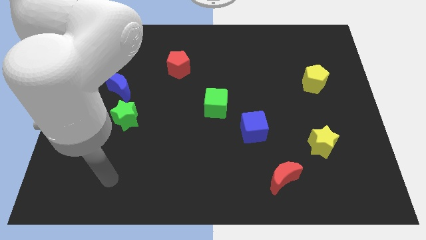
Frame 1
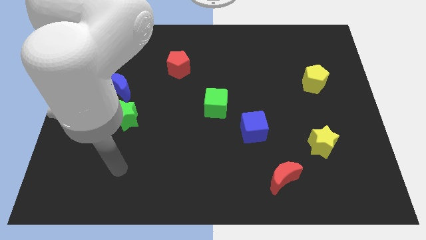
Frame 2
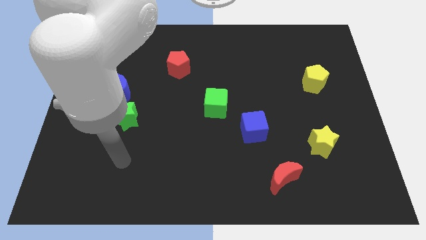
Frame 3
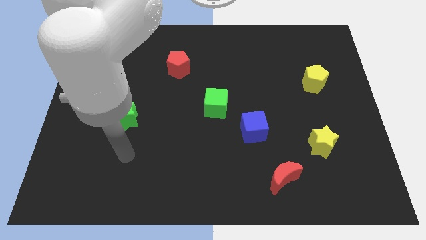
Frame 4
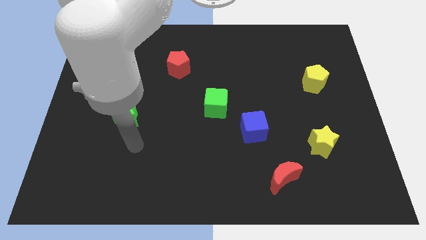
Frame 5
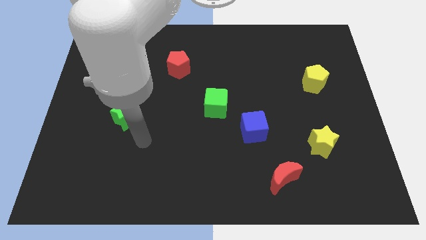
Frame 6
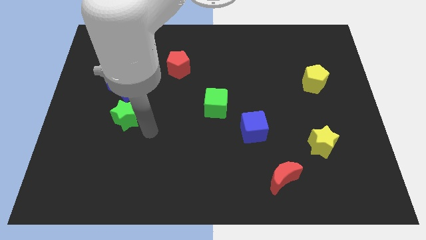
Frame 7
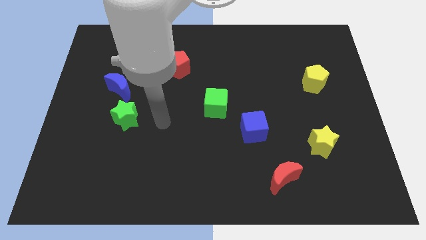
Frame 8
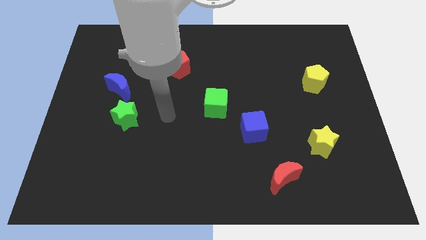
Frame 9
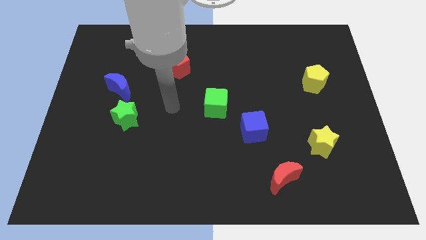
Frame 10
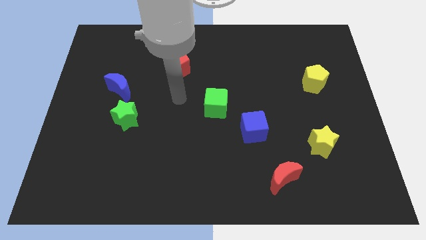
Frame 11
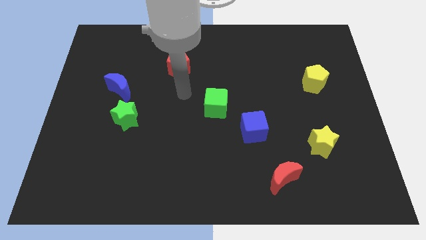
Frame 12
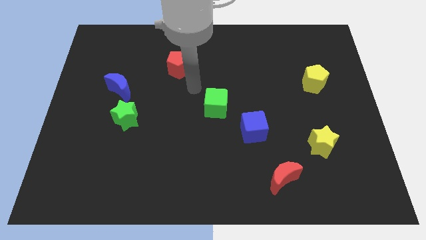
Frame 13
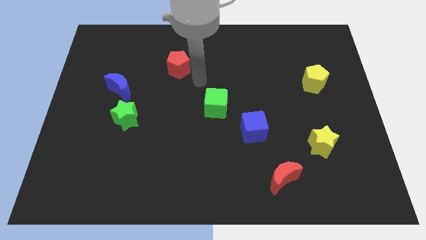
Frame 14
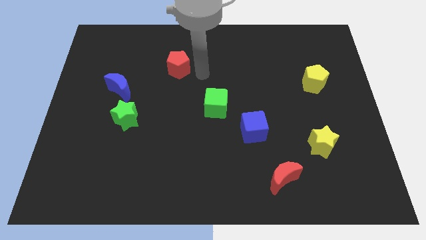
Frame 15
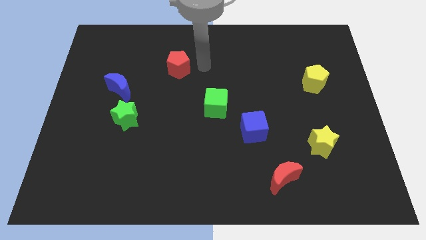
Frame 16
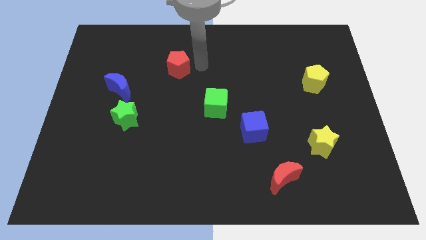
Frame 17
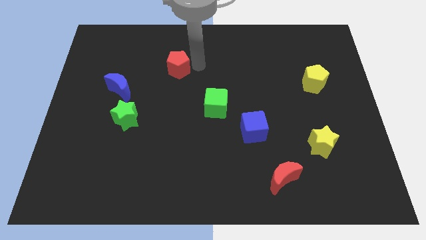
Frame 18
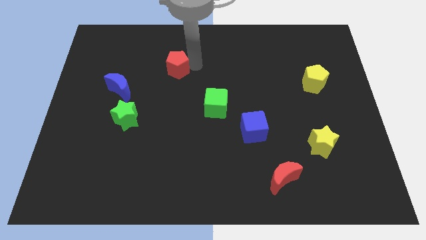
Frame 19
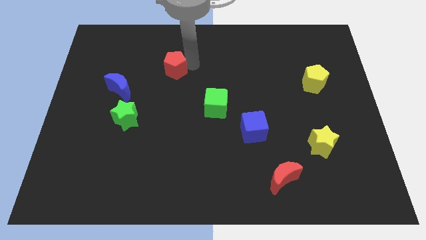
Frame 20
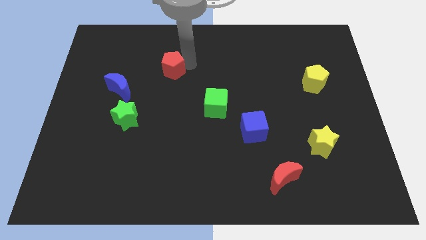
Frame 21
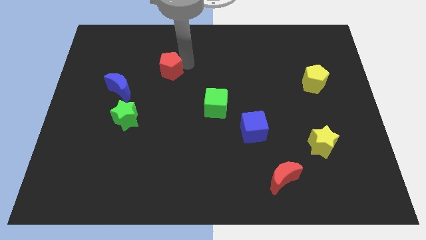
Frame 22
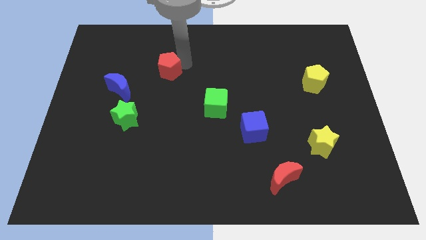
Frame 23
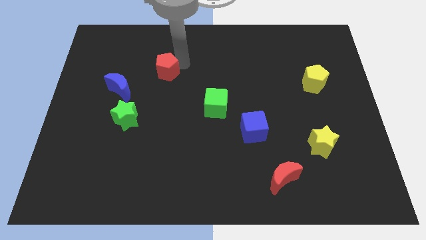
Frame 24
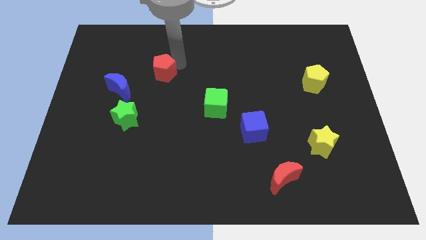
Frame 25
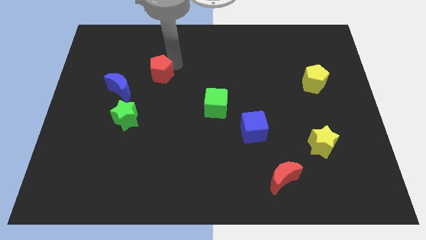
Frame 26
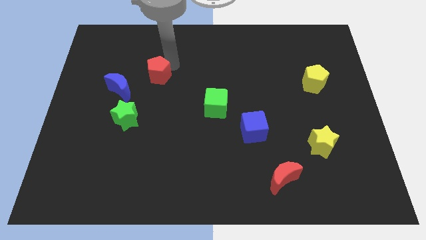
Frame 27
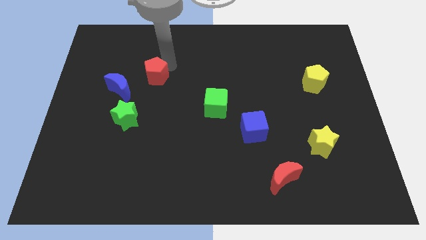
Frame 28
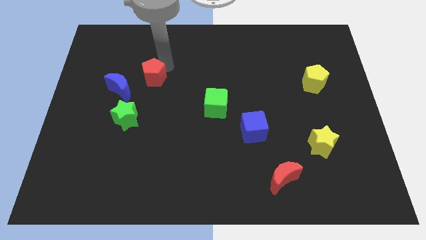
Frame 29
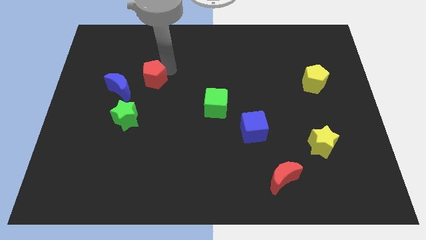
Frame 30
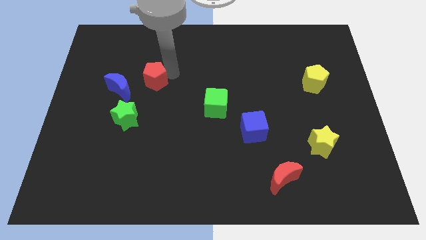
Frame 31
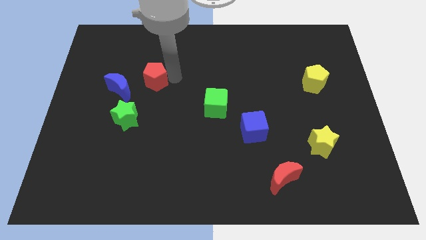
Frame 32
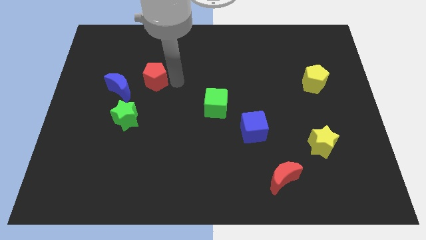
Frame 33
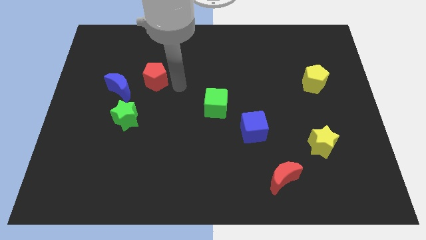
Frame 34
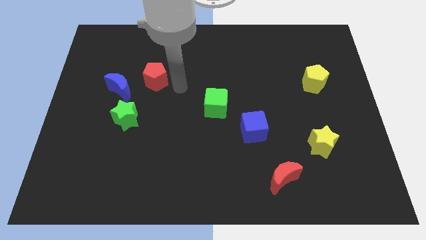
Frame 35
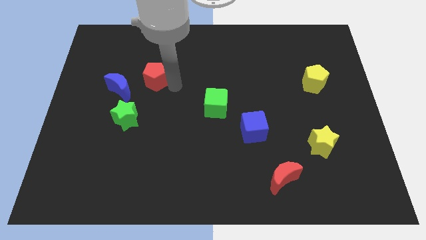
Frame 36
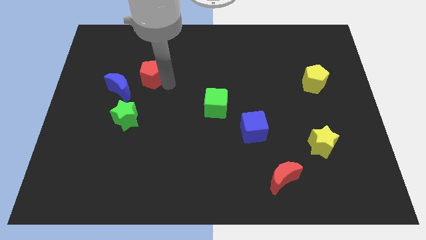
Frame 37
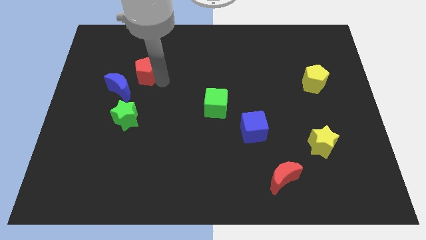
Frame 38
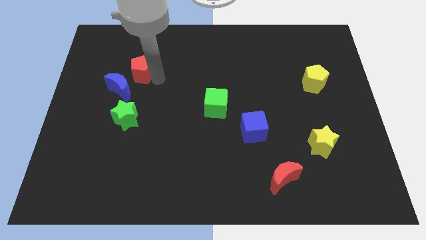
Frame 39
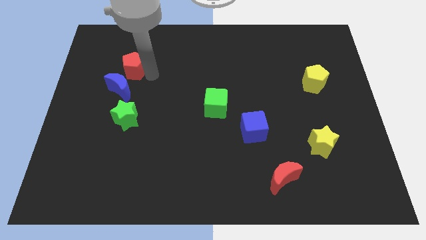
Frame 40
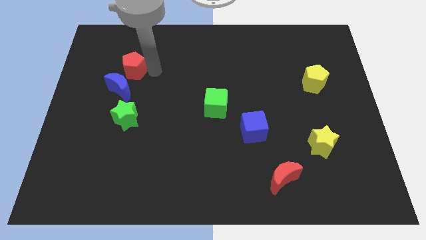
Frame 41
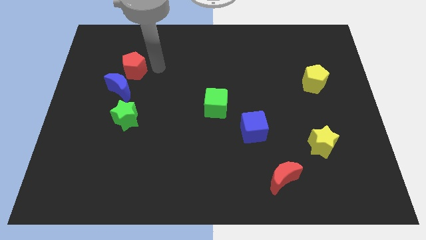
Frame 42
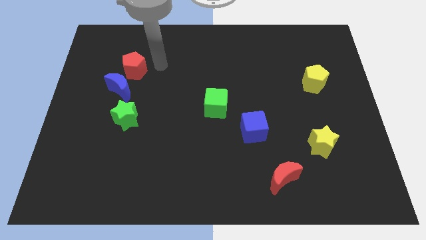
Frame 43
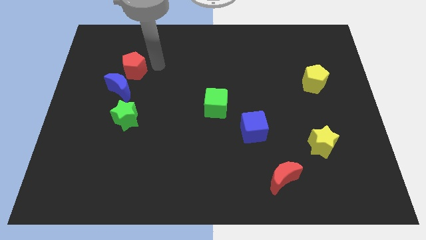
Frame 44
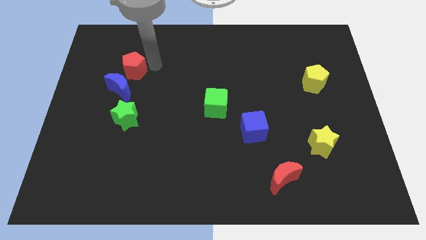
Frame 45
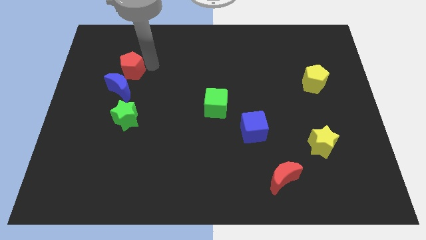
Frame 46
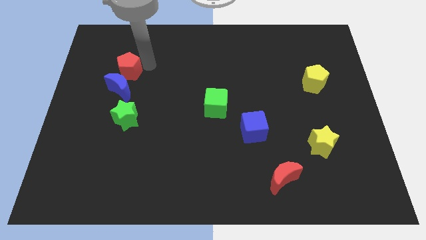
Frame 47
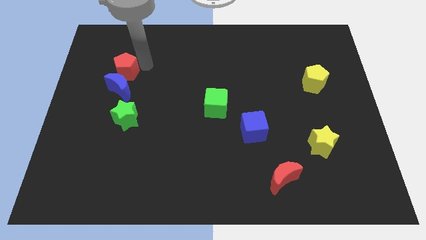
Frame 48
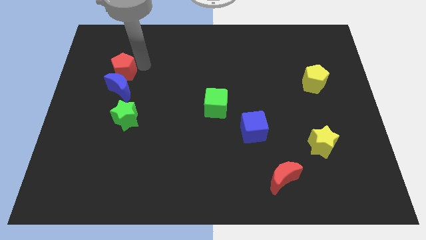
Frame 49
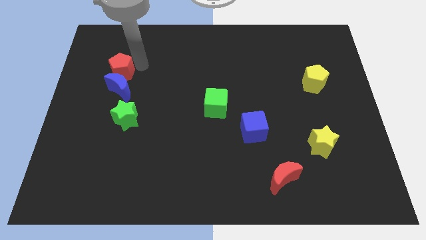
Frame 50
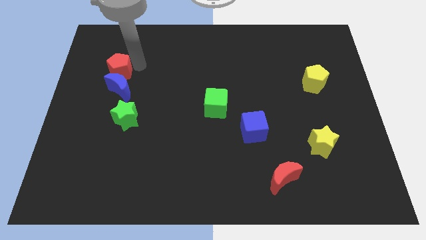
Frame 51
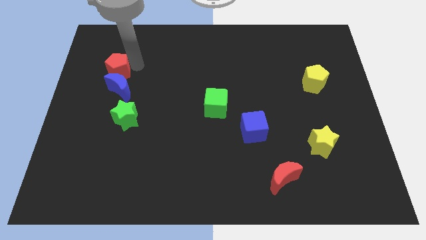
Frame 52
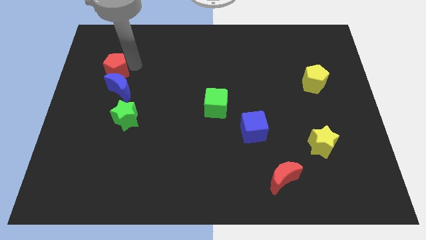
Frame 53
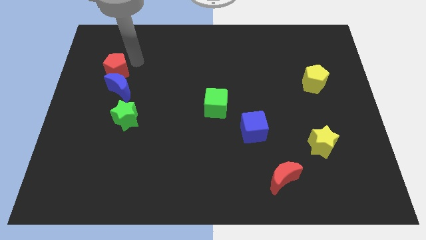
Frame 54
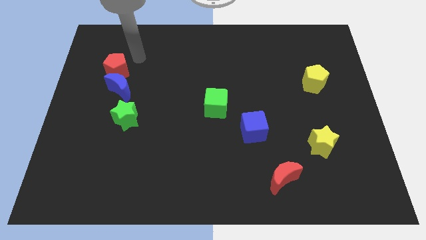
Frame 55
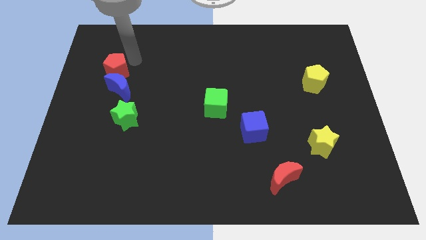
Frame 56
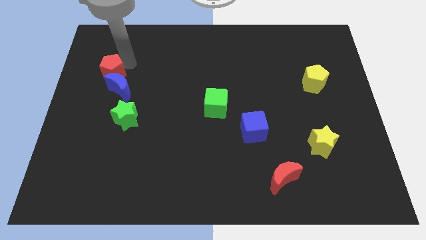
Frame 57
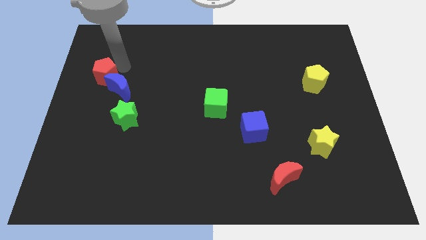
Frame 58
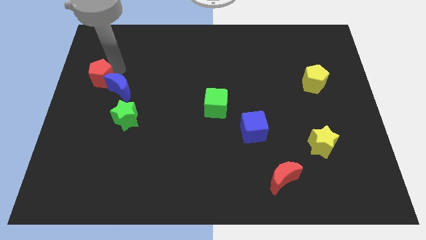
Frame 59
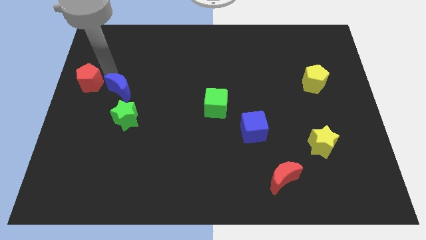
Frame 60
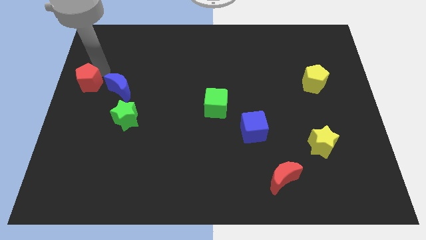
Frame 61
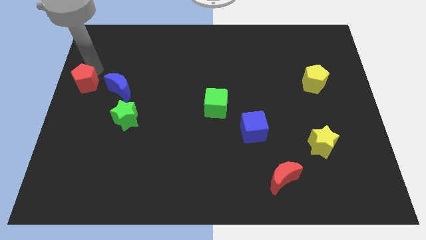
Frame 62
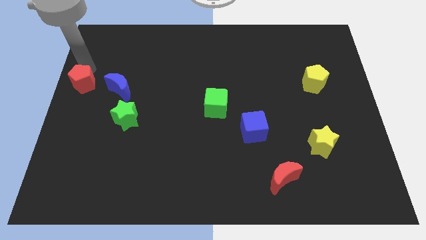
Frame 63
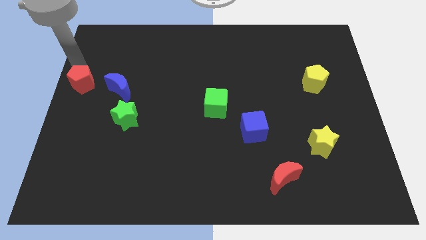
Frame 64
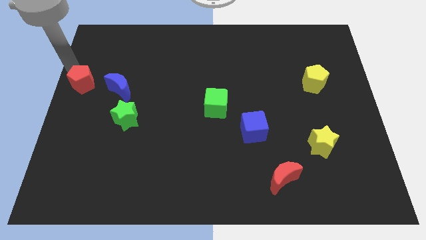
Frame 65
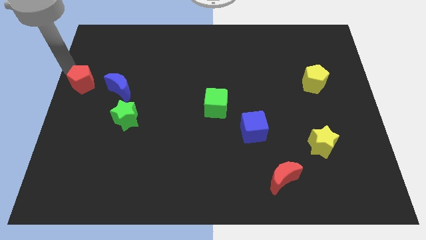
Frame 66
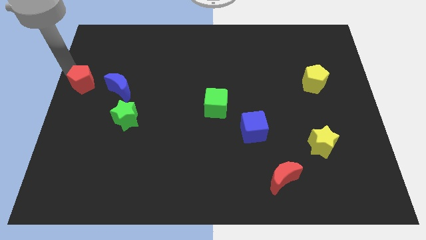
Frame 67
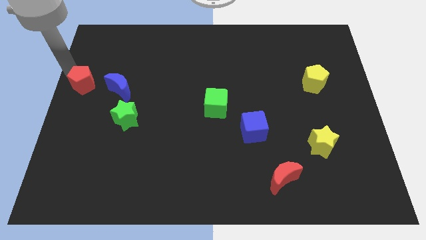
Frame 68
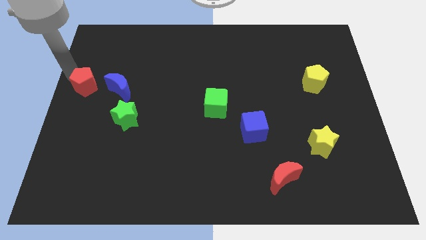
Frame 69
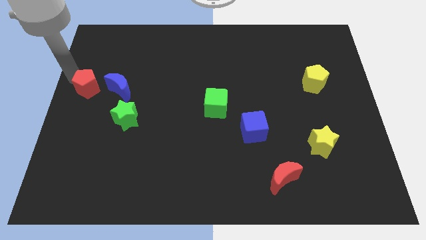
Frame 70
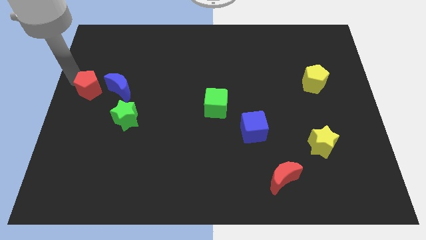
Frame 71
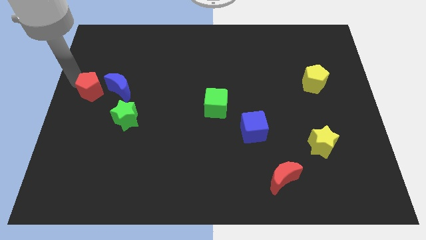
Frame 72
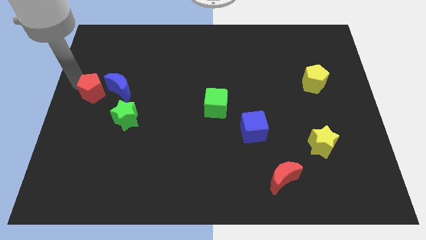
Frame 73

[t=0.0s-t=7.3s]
slide the red pentagon diagonally up and to the left of the green star
